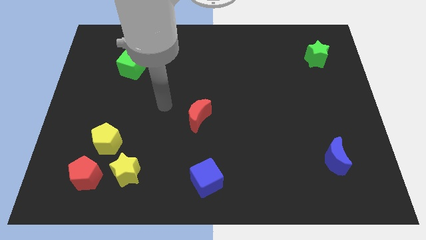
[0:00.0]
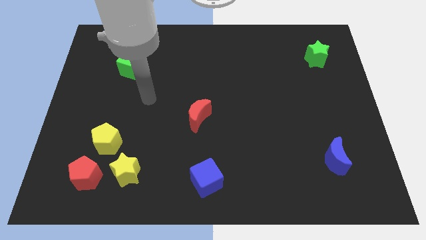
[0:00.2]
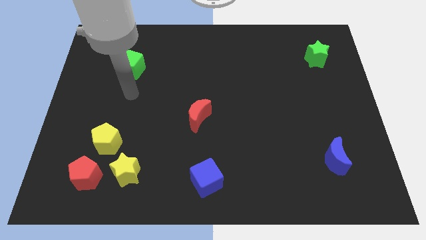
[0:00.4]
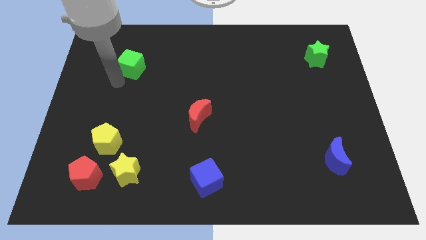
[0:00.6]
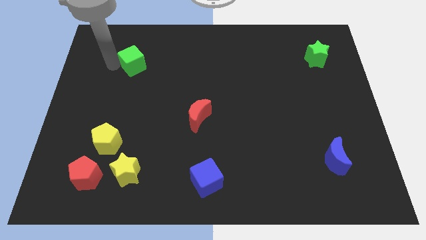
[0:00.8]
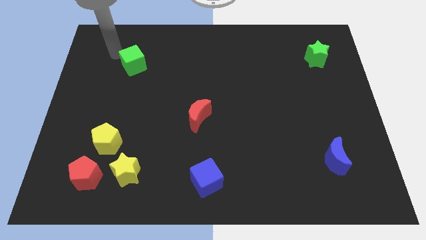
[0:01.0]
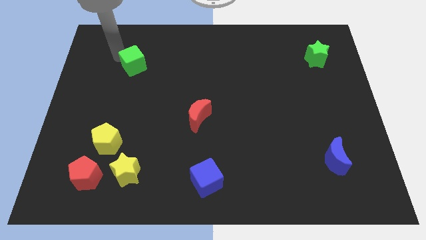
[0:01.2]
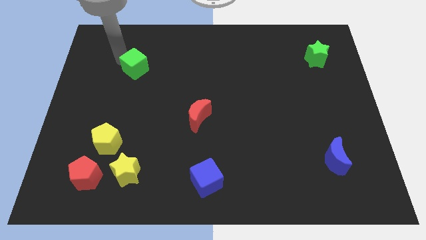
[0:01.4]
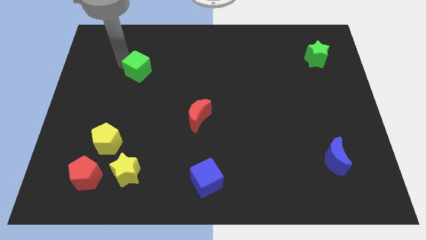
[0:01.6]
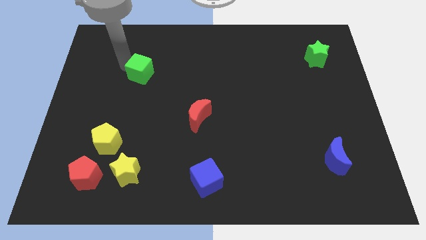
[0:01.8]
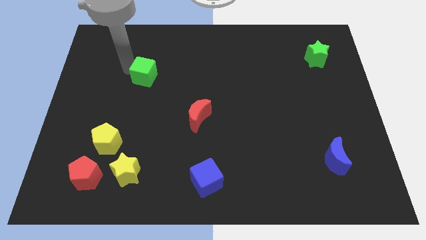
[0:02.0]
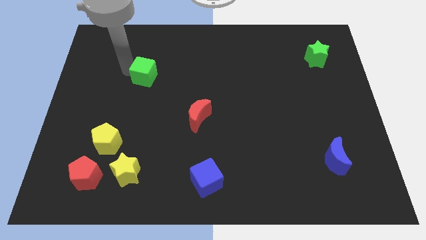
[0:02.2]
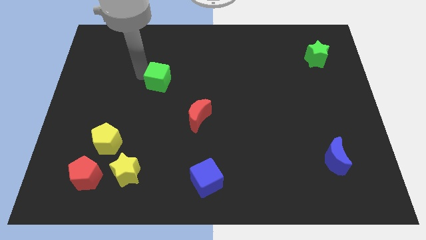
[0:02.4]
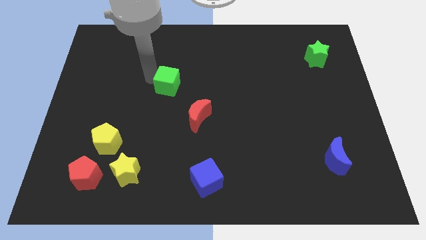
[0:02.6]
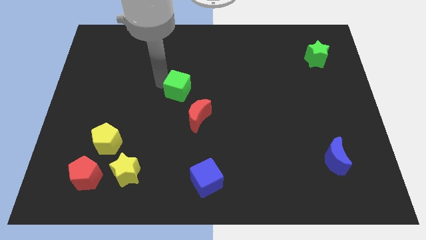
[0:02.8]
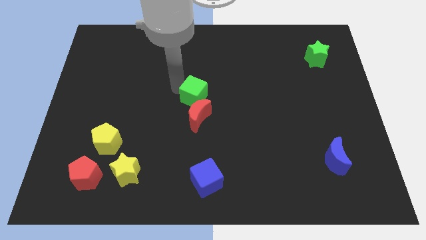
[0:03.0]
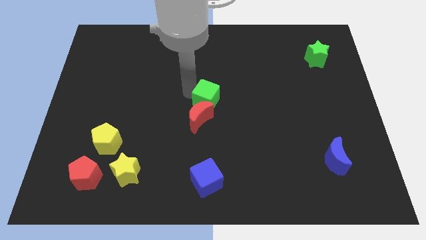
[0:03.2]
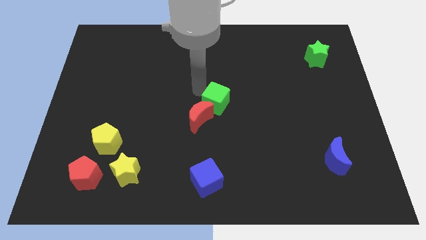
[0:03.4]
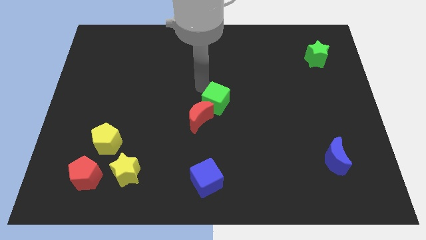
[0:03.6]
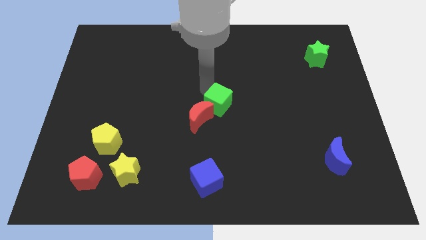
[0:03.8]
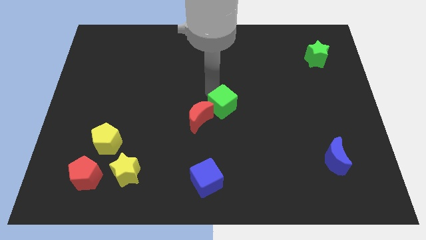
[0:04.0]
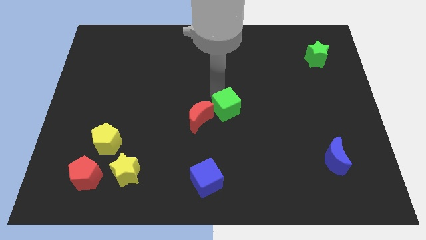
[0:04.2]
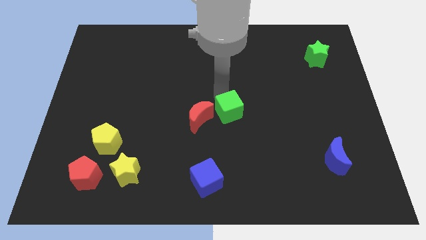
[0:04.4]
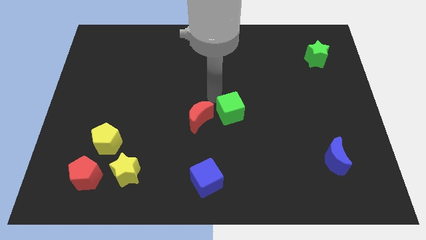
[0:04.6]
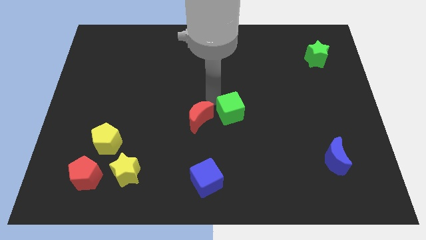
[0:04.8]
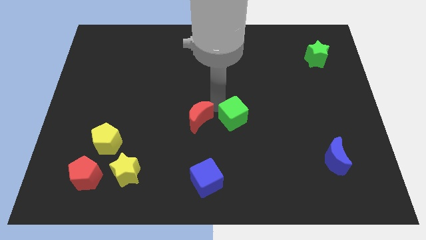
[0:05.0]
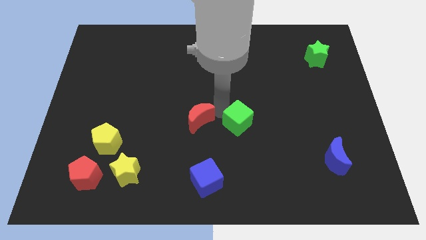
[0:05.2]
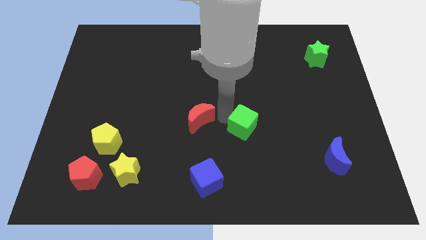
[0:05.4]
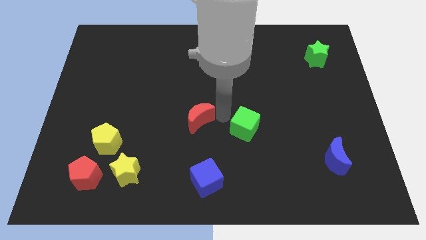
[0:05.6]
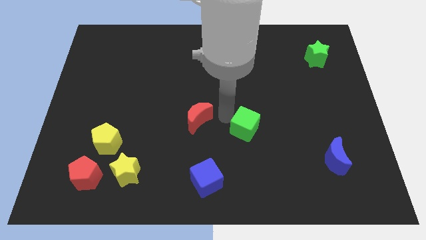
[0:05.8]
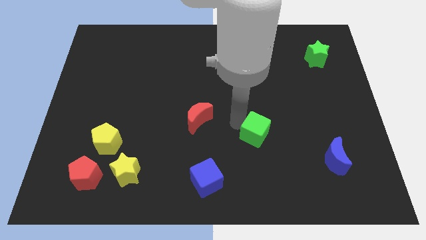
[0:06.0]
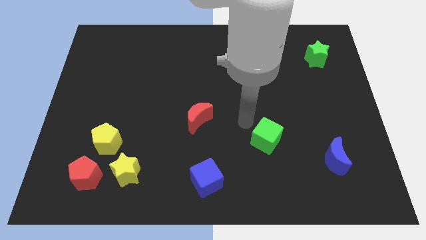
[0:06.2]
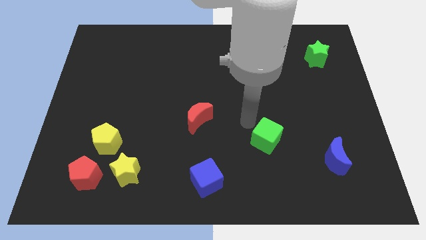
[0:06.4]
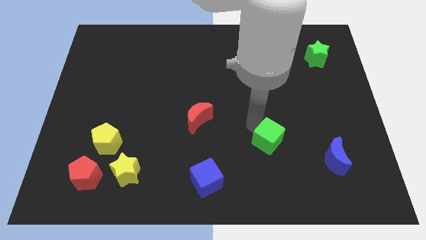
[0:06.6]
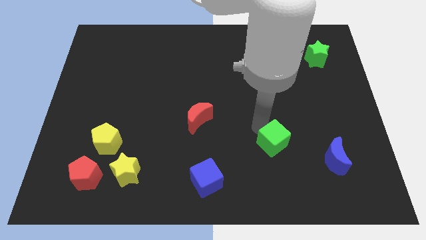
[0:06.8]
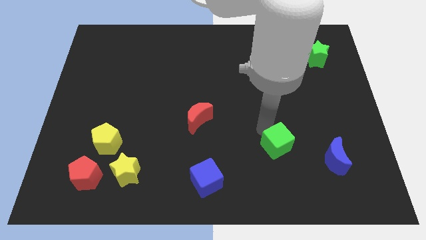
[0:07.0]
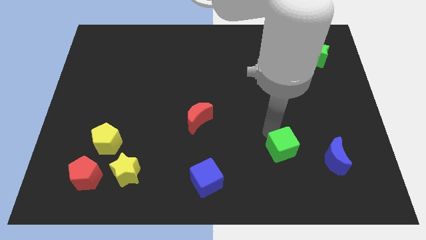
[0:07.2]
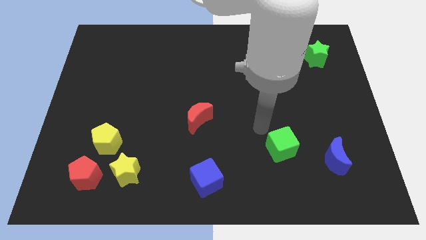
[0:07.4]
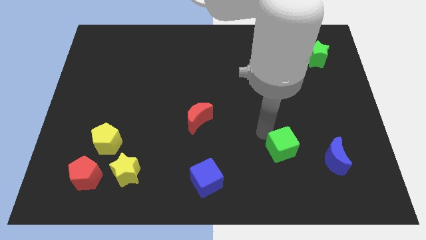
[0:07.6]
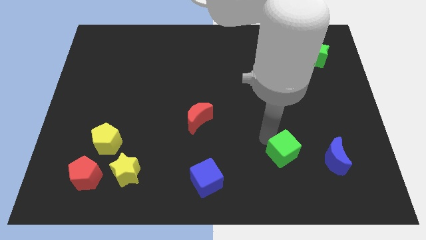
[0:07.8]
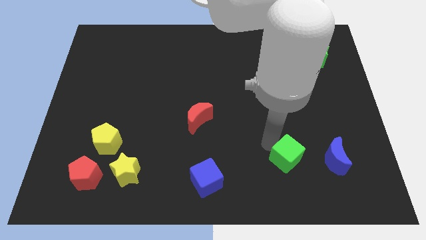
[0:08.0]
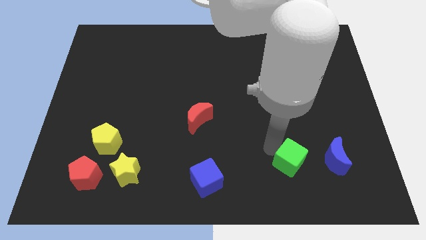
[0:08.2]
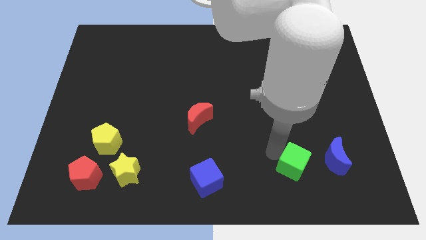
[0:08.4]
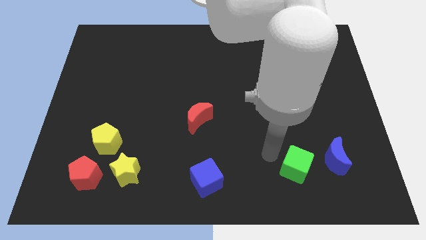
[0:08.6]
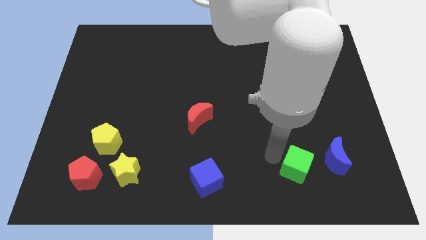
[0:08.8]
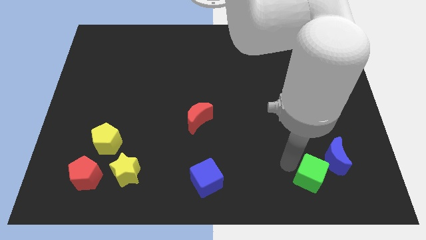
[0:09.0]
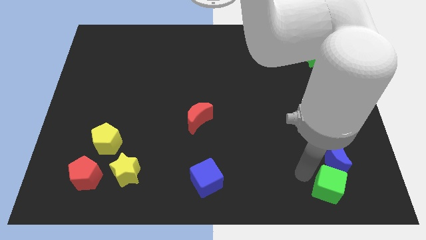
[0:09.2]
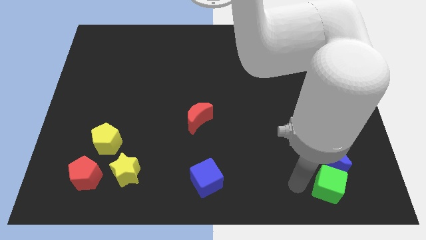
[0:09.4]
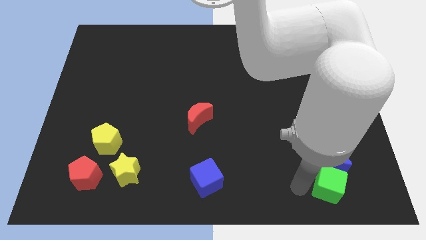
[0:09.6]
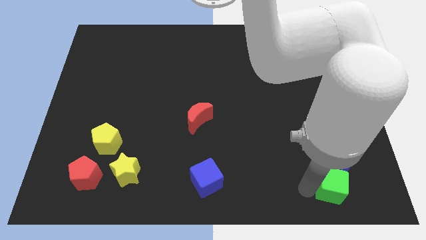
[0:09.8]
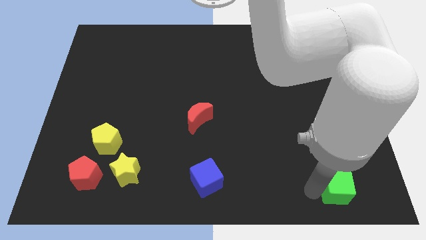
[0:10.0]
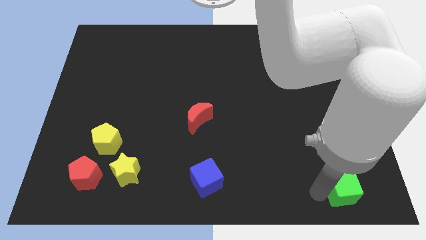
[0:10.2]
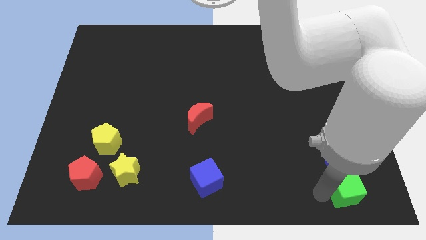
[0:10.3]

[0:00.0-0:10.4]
put the green cube to the bottom right of the board
